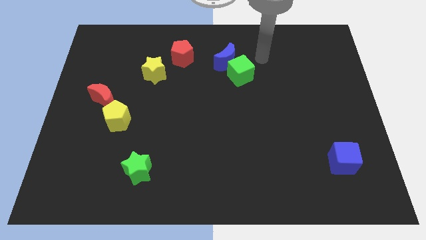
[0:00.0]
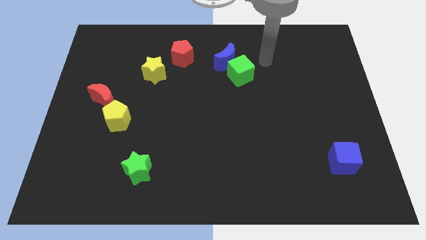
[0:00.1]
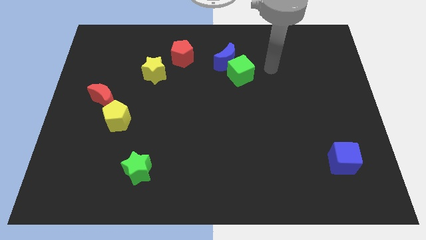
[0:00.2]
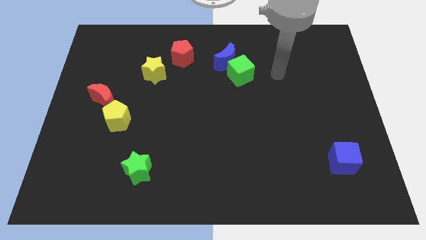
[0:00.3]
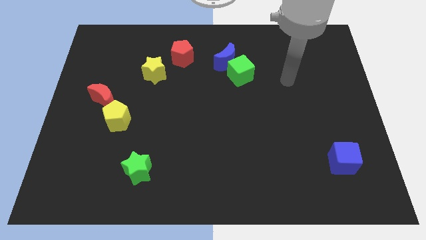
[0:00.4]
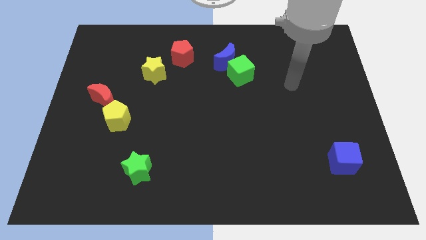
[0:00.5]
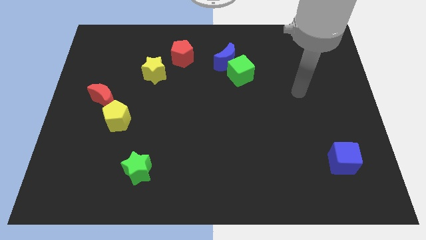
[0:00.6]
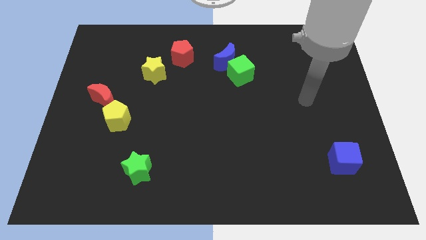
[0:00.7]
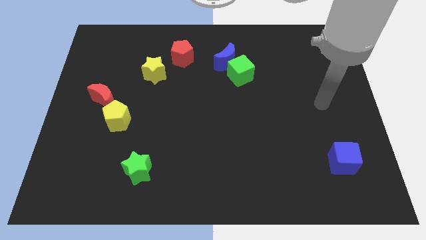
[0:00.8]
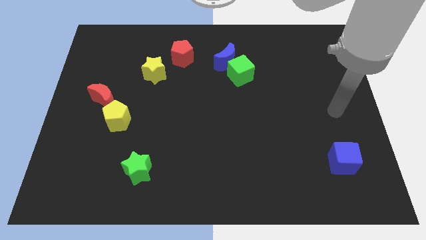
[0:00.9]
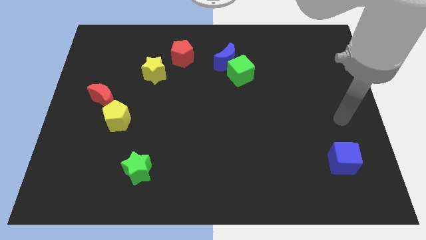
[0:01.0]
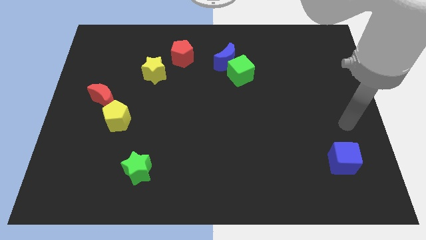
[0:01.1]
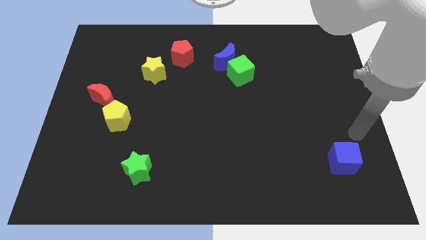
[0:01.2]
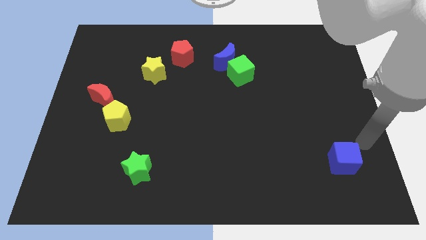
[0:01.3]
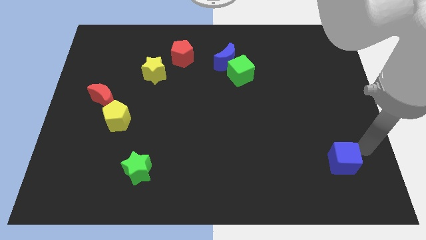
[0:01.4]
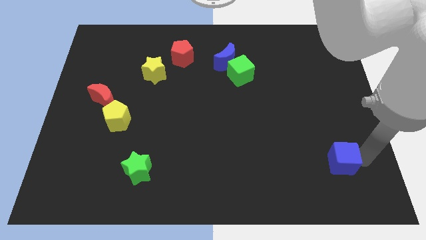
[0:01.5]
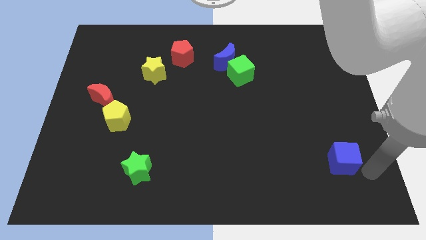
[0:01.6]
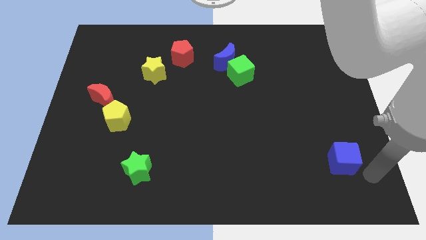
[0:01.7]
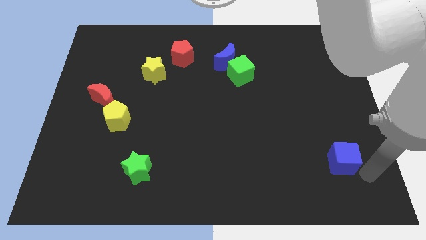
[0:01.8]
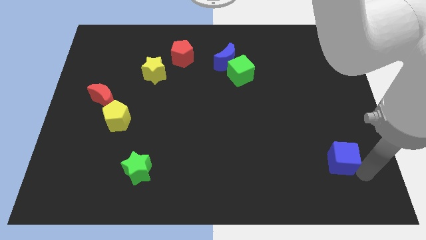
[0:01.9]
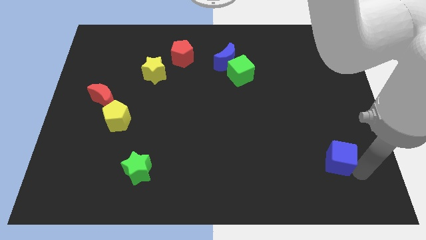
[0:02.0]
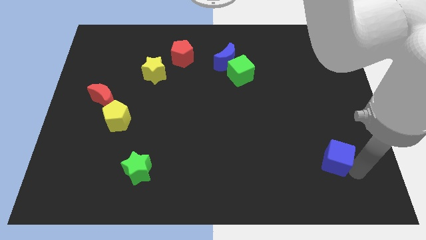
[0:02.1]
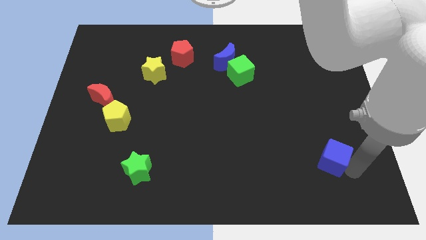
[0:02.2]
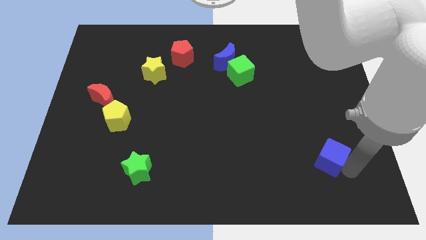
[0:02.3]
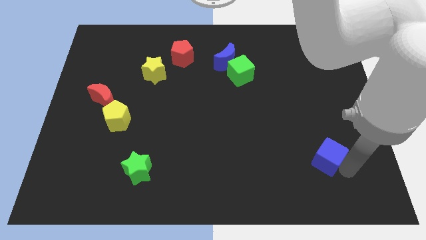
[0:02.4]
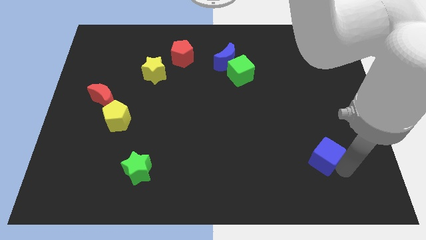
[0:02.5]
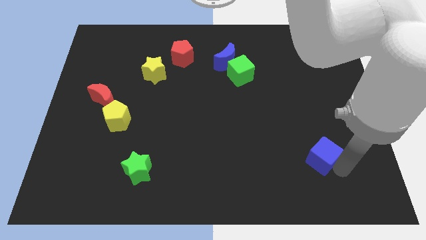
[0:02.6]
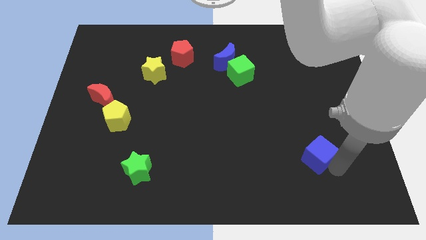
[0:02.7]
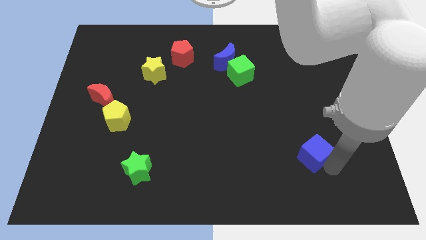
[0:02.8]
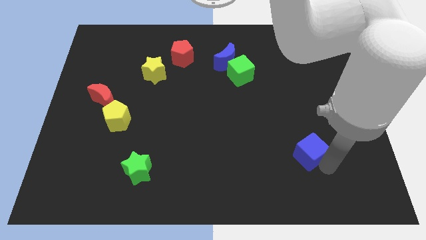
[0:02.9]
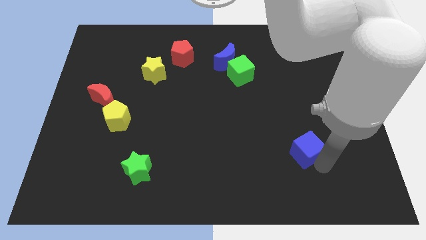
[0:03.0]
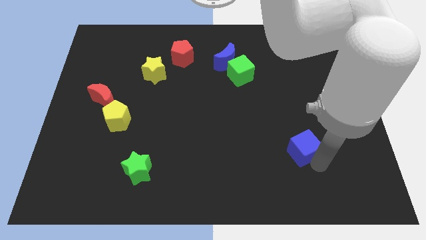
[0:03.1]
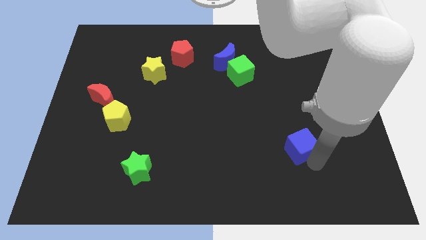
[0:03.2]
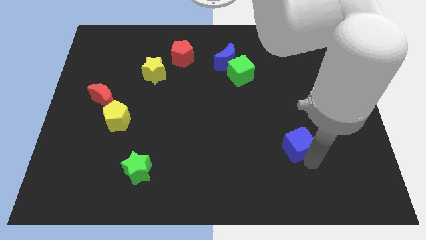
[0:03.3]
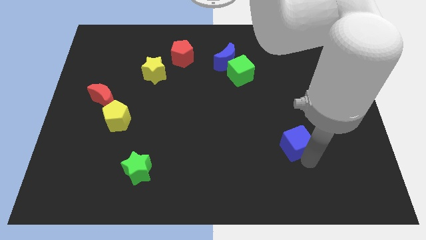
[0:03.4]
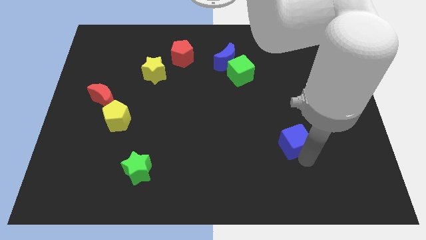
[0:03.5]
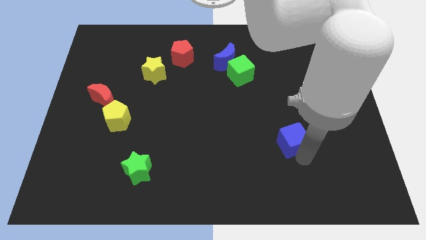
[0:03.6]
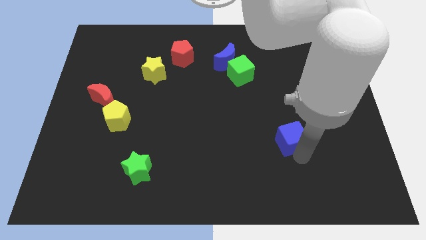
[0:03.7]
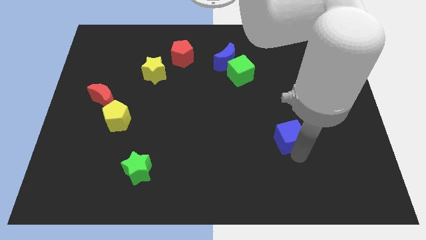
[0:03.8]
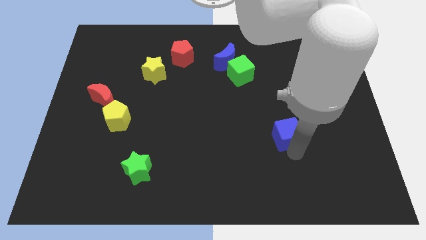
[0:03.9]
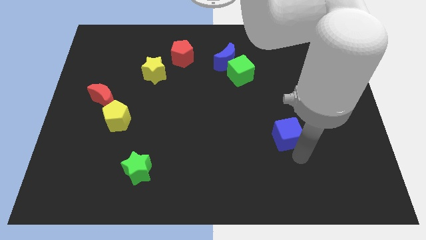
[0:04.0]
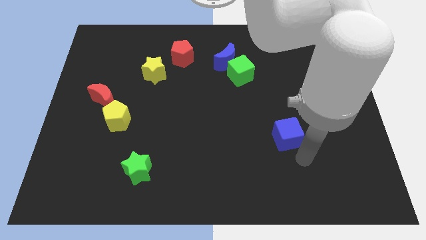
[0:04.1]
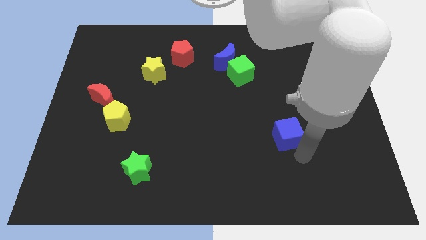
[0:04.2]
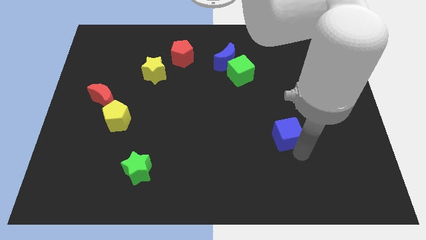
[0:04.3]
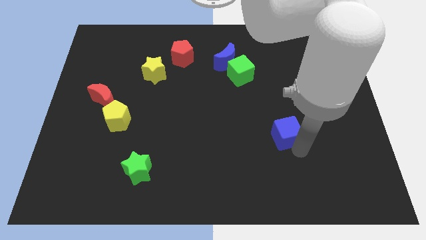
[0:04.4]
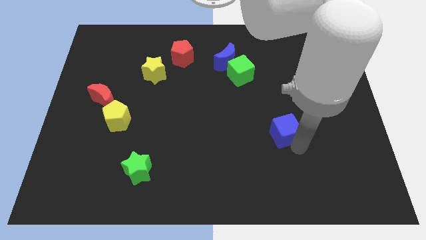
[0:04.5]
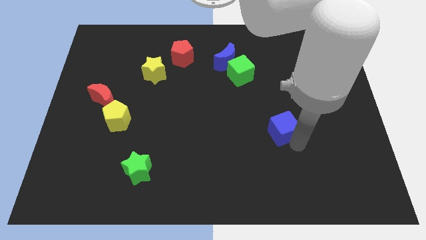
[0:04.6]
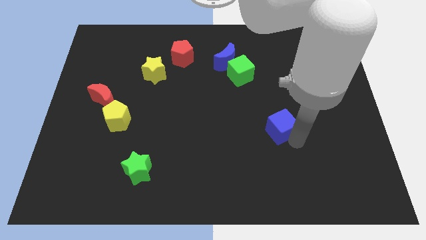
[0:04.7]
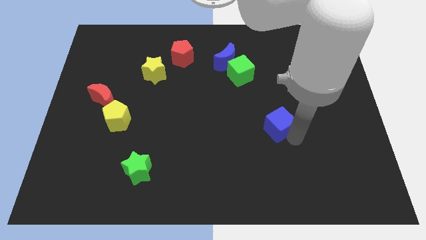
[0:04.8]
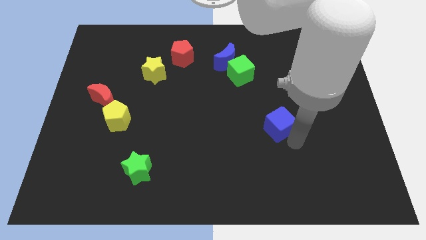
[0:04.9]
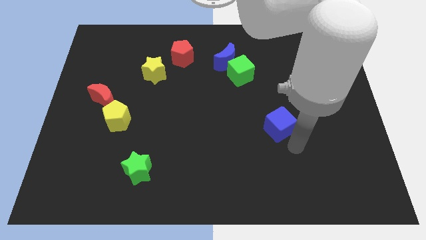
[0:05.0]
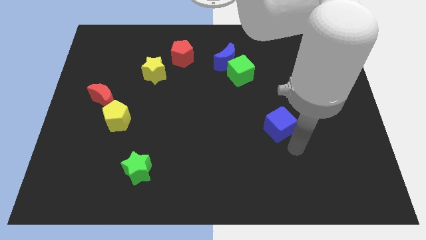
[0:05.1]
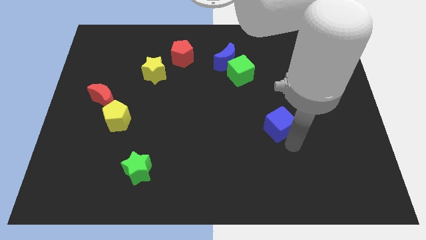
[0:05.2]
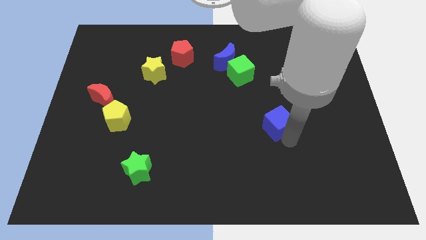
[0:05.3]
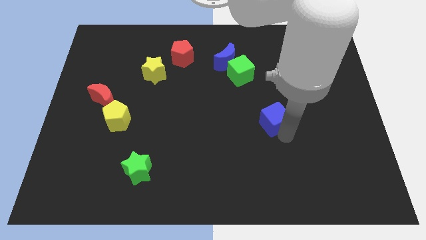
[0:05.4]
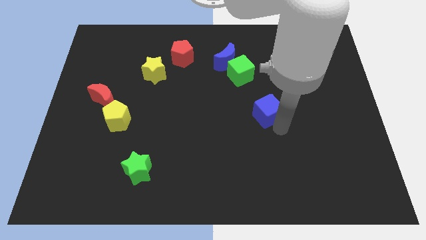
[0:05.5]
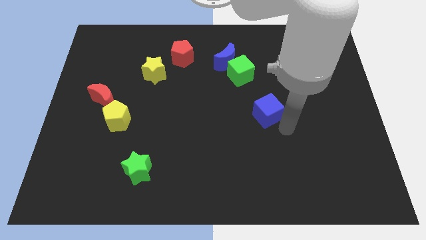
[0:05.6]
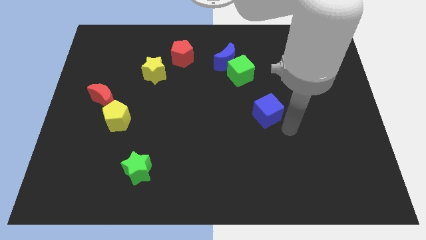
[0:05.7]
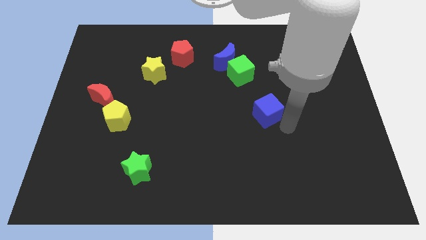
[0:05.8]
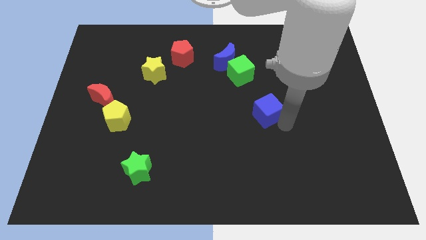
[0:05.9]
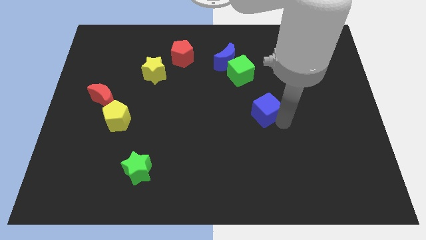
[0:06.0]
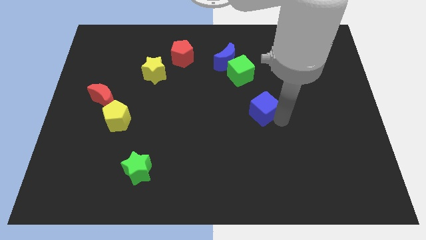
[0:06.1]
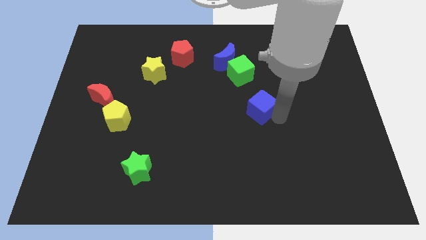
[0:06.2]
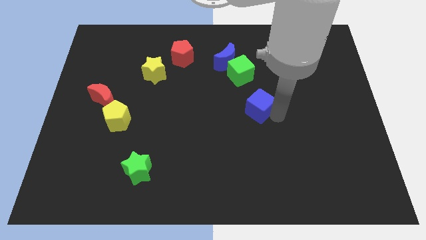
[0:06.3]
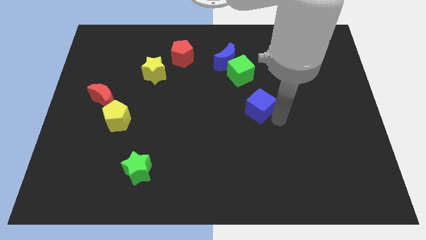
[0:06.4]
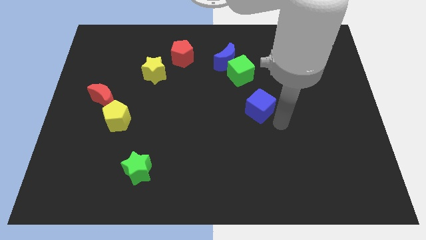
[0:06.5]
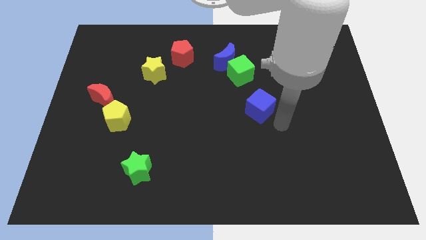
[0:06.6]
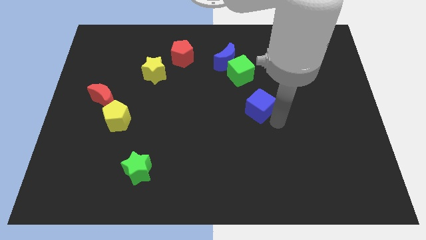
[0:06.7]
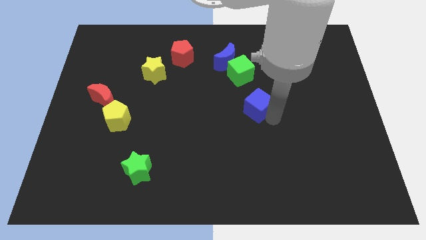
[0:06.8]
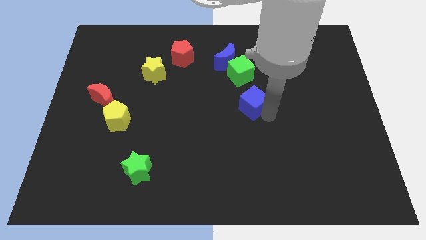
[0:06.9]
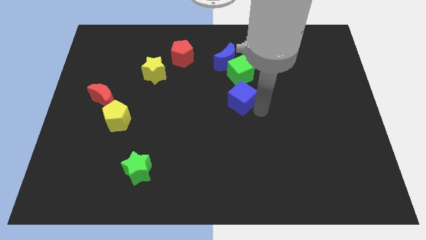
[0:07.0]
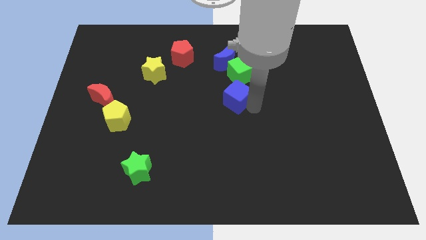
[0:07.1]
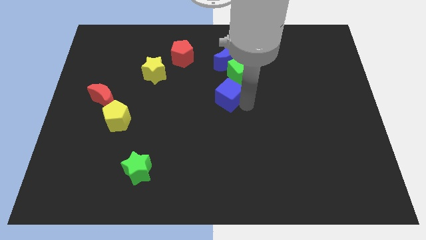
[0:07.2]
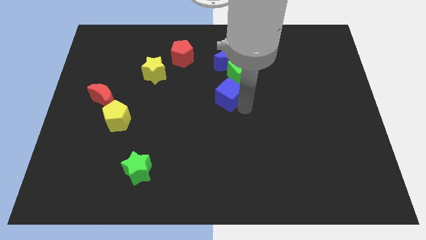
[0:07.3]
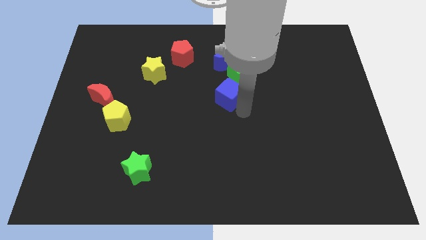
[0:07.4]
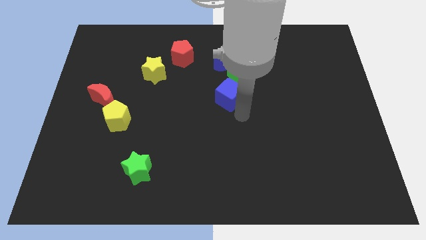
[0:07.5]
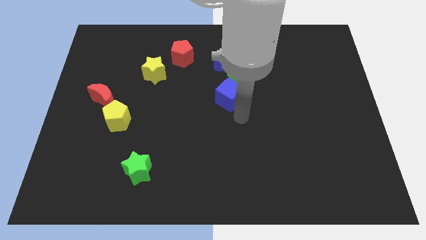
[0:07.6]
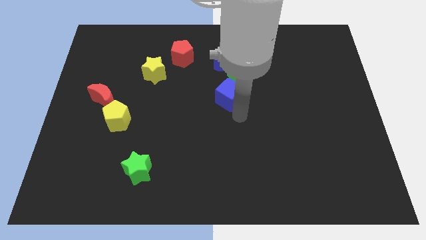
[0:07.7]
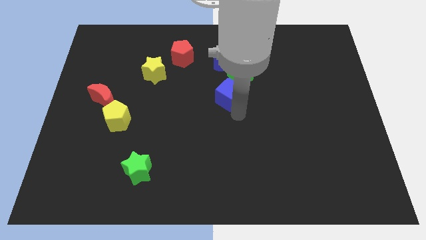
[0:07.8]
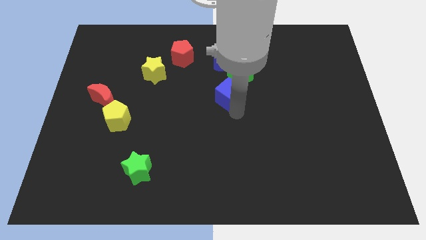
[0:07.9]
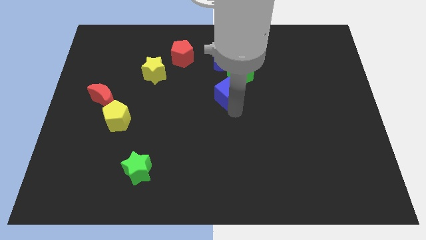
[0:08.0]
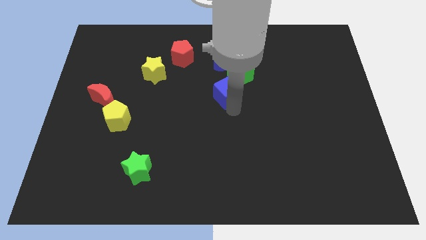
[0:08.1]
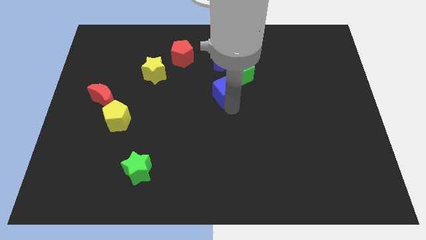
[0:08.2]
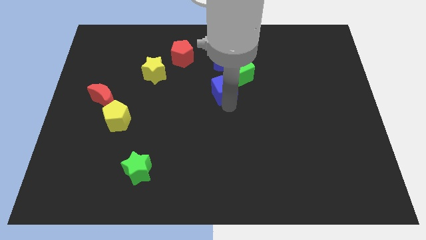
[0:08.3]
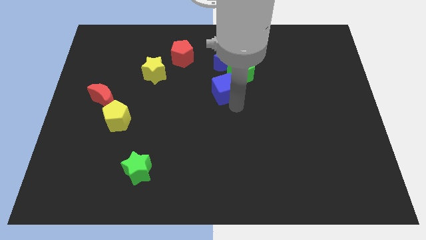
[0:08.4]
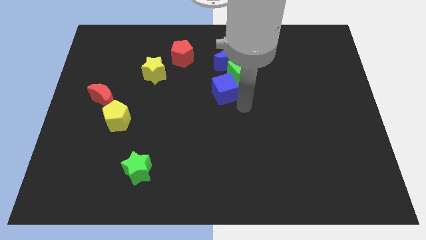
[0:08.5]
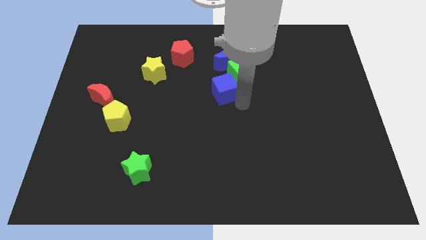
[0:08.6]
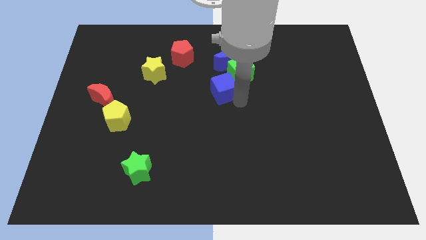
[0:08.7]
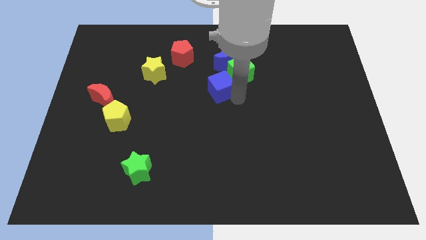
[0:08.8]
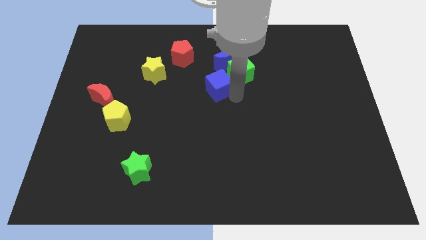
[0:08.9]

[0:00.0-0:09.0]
move the blue cube left of the green cube
